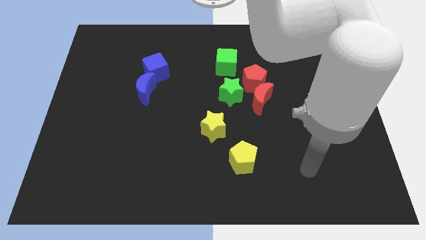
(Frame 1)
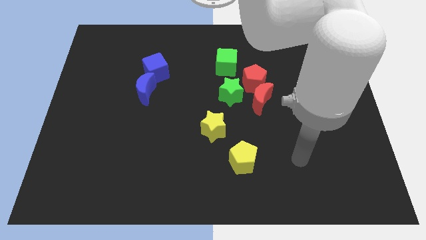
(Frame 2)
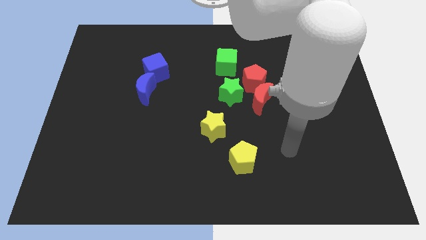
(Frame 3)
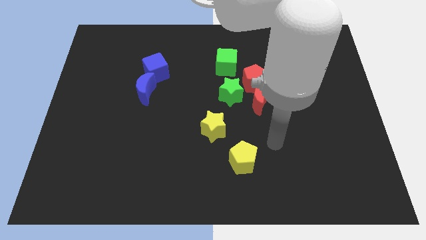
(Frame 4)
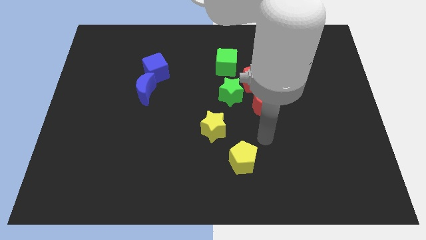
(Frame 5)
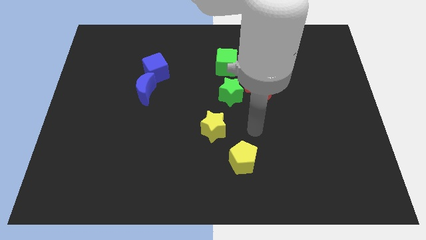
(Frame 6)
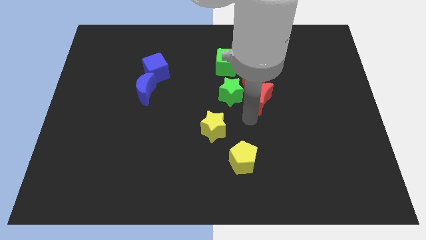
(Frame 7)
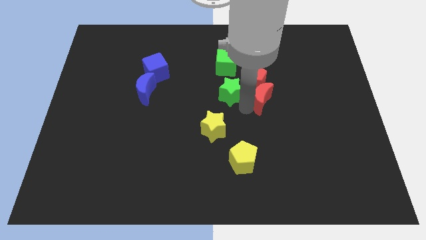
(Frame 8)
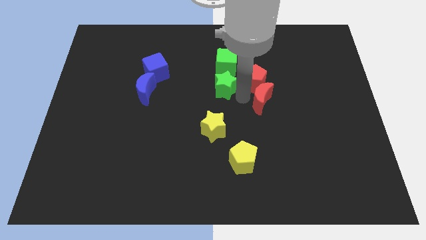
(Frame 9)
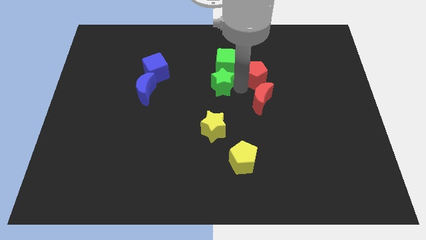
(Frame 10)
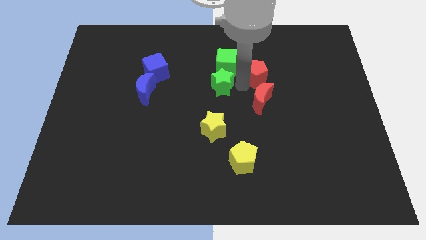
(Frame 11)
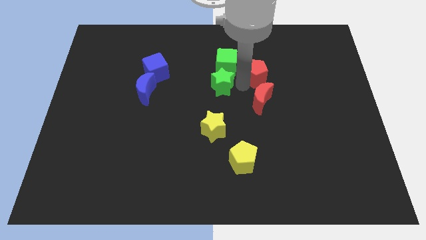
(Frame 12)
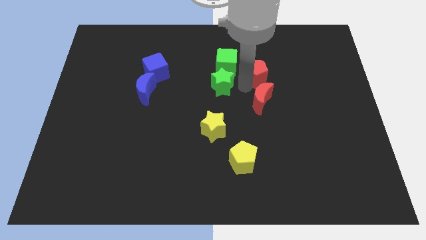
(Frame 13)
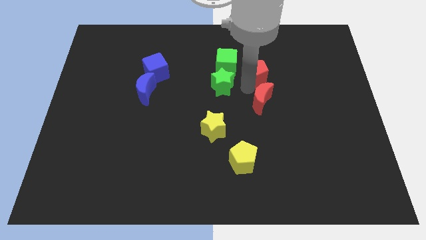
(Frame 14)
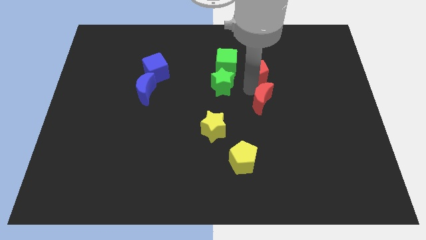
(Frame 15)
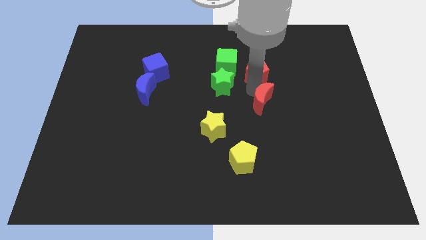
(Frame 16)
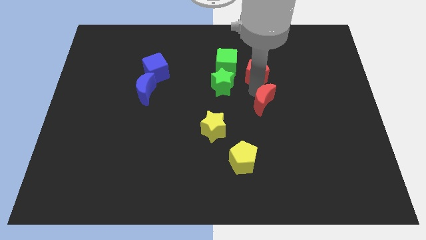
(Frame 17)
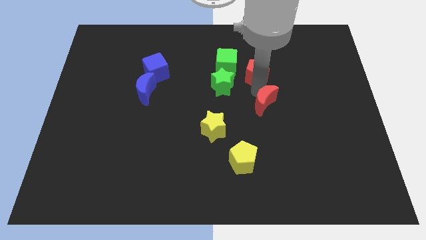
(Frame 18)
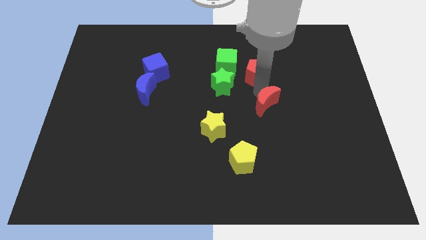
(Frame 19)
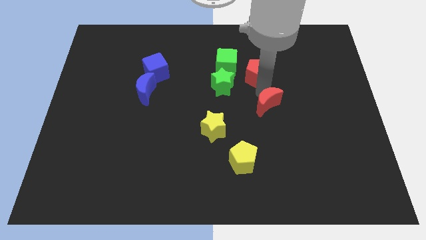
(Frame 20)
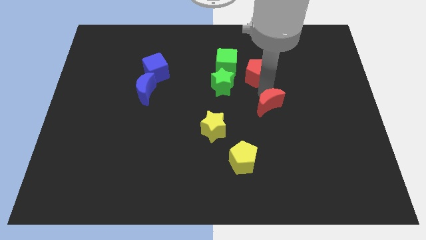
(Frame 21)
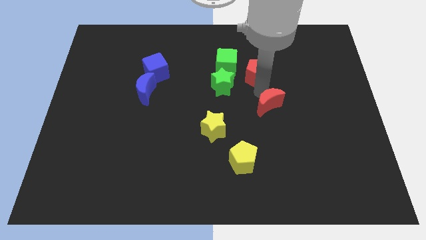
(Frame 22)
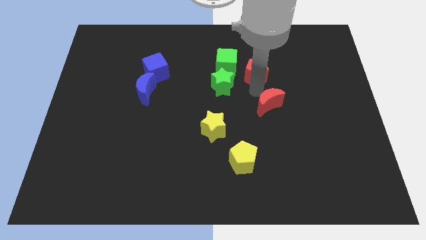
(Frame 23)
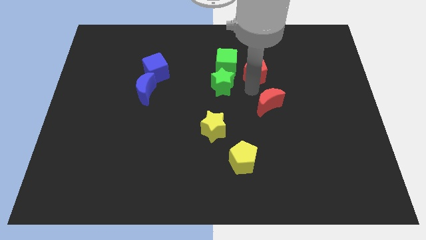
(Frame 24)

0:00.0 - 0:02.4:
separate the red moon from the red pentagon and green star

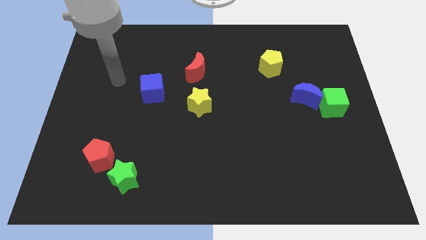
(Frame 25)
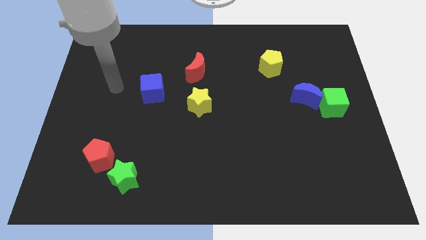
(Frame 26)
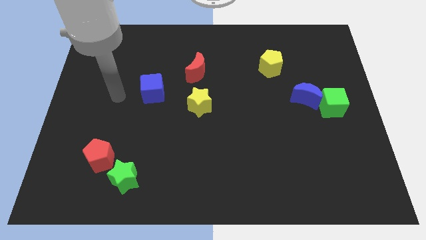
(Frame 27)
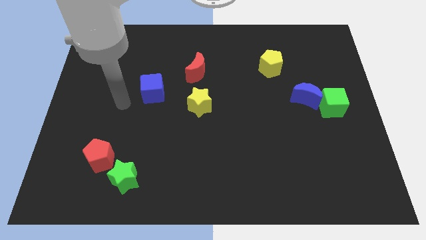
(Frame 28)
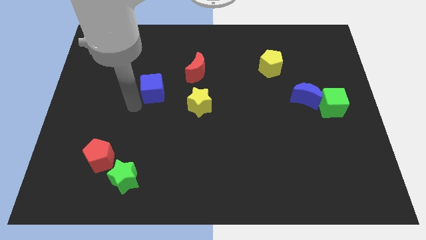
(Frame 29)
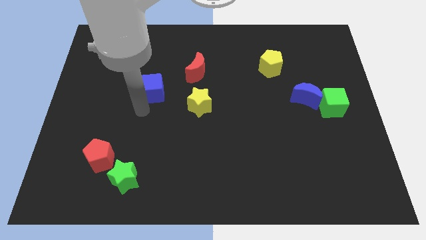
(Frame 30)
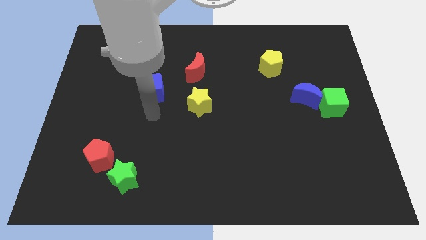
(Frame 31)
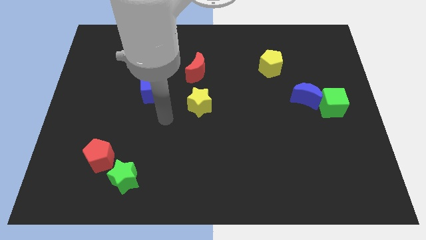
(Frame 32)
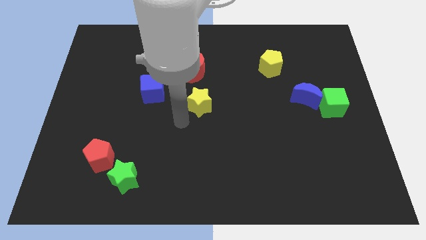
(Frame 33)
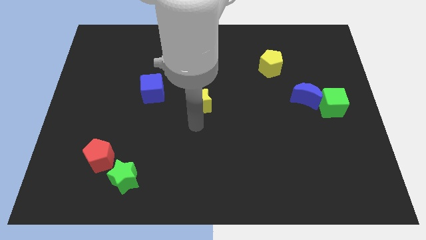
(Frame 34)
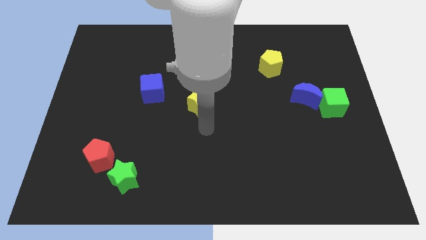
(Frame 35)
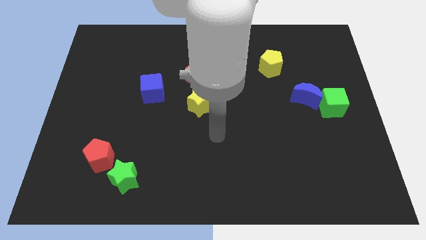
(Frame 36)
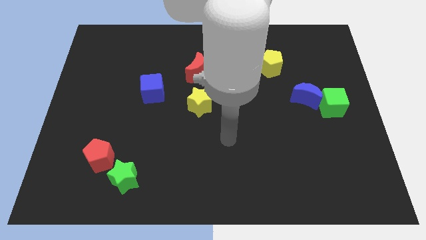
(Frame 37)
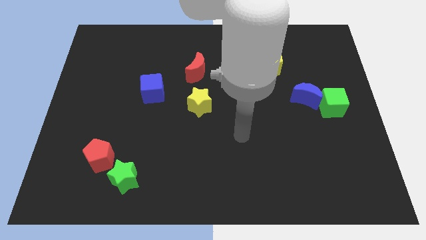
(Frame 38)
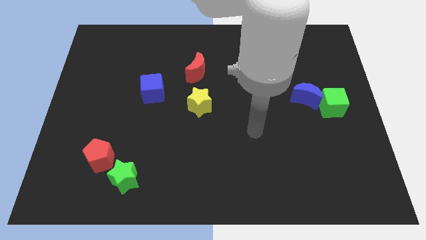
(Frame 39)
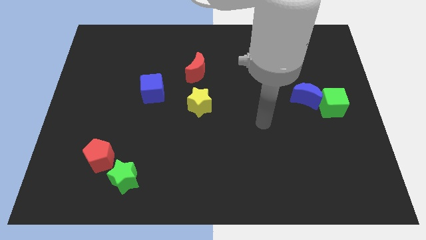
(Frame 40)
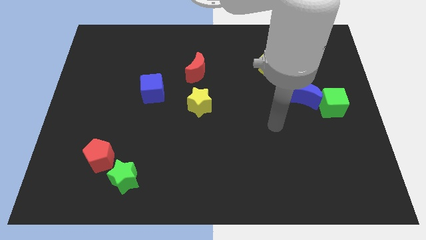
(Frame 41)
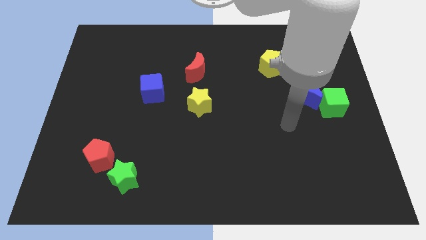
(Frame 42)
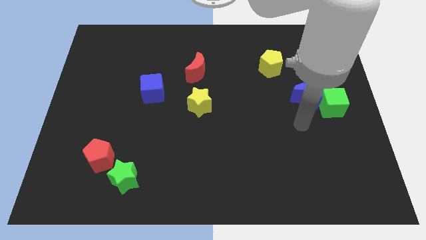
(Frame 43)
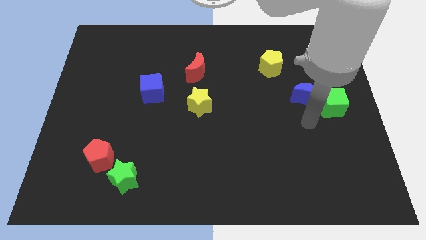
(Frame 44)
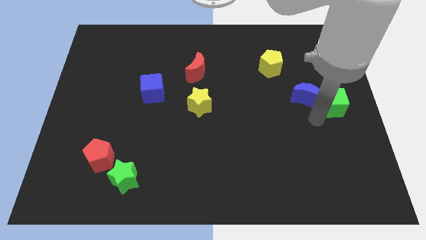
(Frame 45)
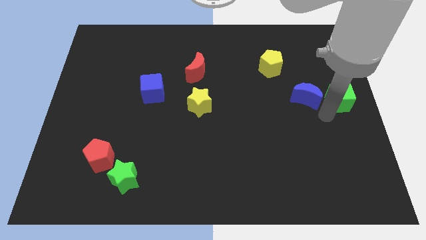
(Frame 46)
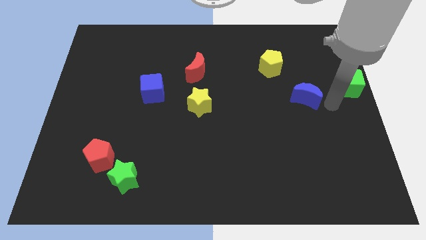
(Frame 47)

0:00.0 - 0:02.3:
move the blue moon away from the green cube

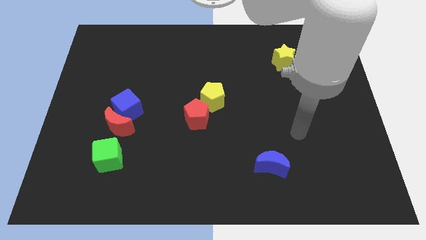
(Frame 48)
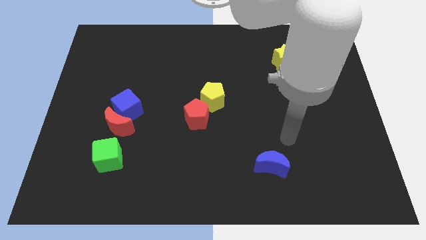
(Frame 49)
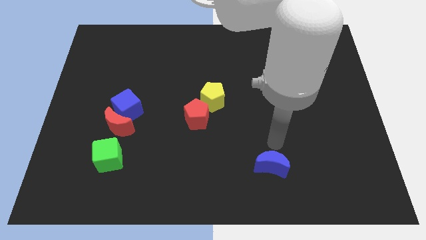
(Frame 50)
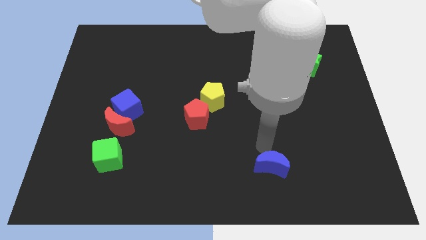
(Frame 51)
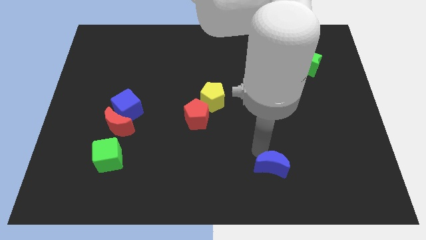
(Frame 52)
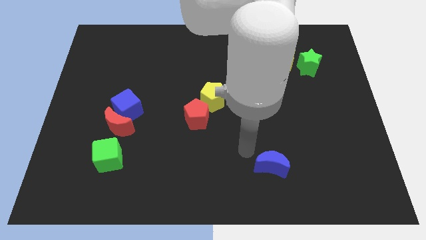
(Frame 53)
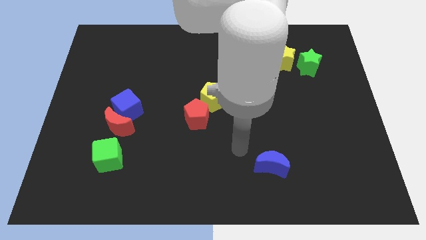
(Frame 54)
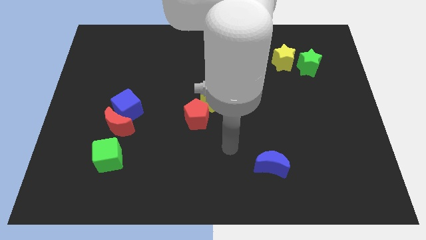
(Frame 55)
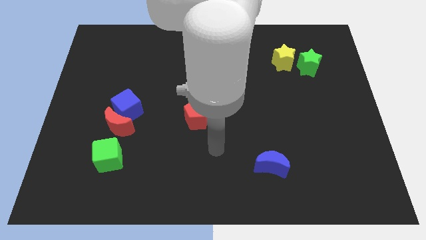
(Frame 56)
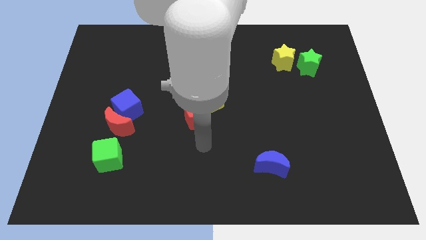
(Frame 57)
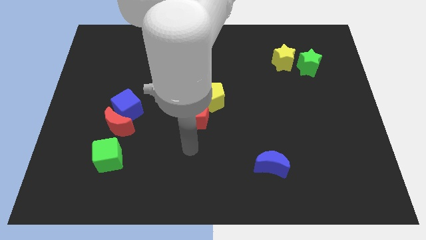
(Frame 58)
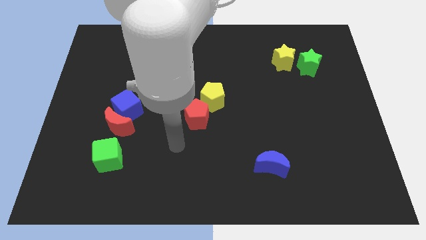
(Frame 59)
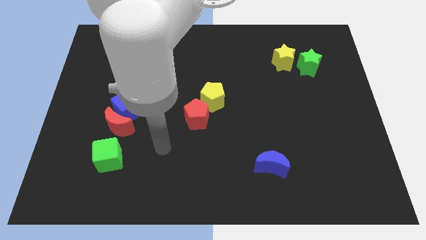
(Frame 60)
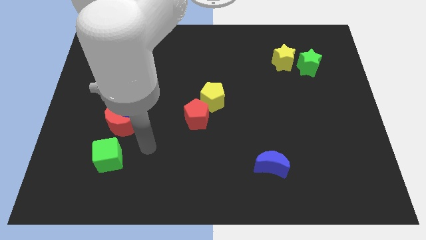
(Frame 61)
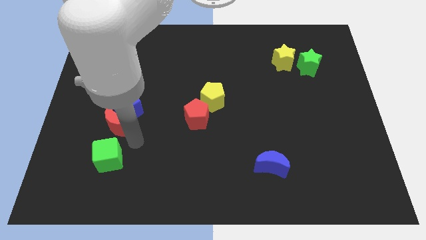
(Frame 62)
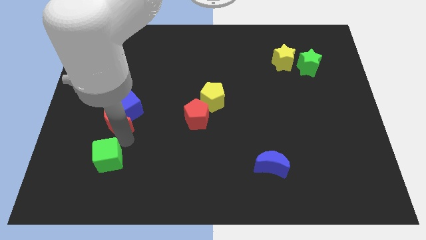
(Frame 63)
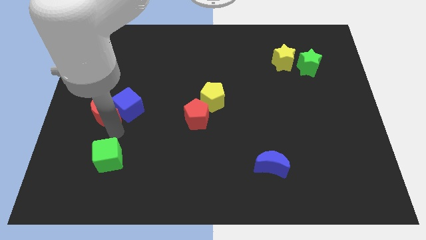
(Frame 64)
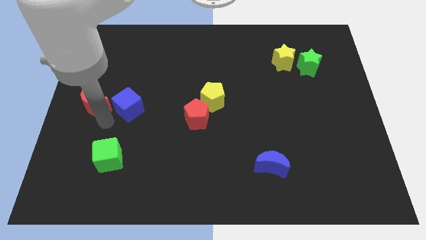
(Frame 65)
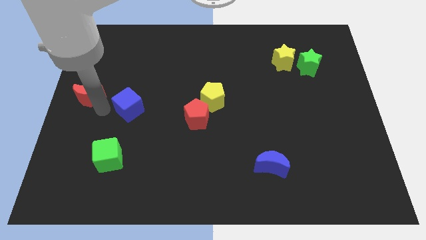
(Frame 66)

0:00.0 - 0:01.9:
separate the blue cube from the red moon

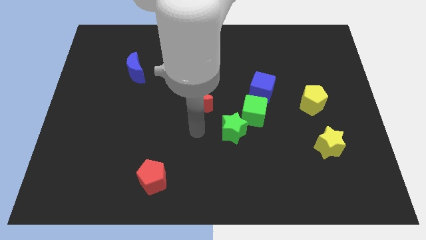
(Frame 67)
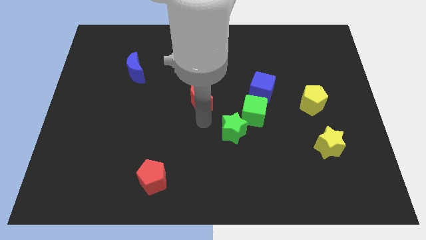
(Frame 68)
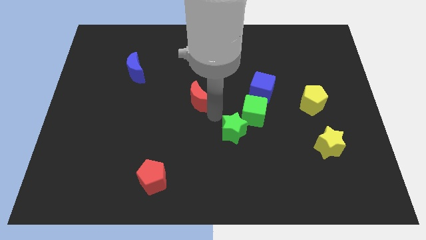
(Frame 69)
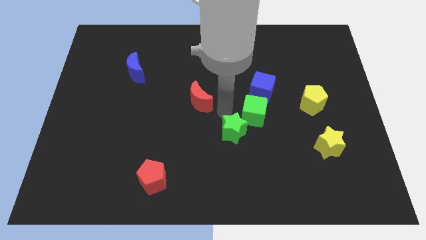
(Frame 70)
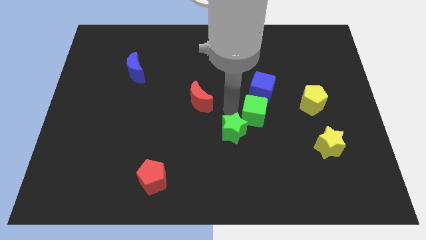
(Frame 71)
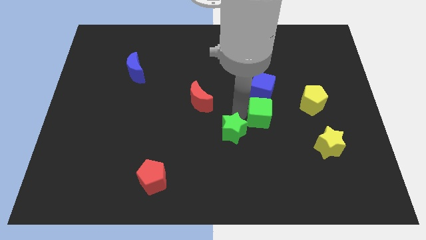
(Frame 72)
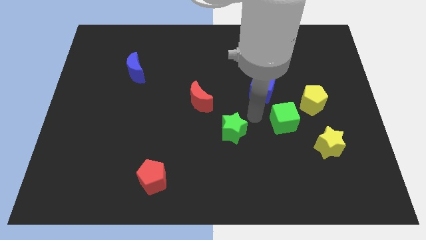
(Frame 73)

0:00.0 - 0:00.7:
move the green star away from the green cube

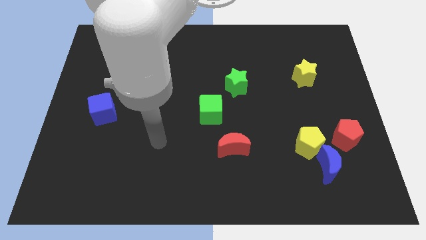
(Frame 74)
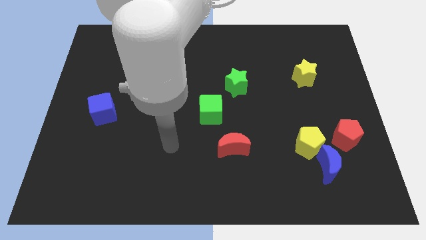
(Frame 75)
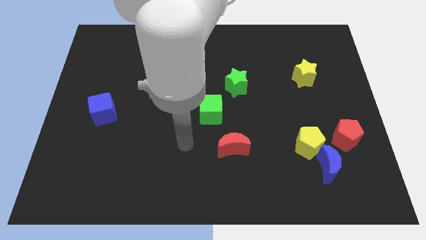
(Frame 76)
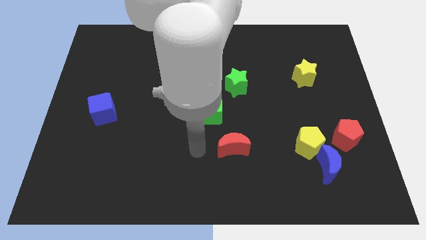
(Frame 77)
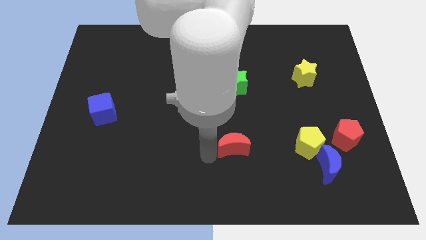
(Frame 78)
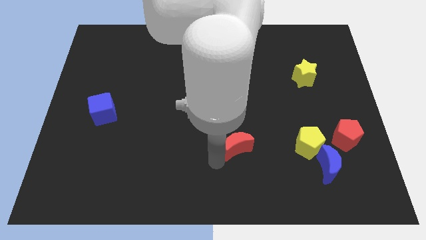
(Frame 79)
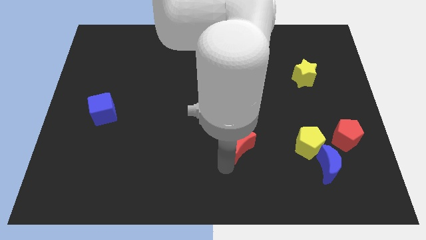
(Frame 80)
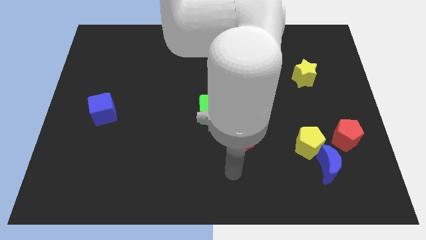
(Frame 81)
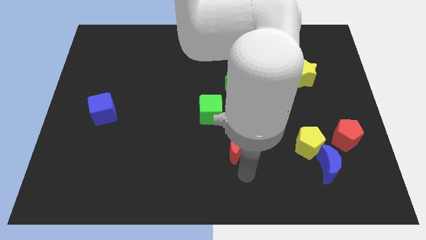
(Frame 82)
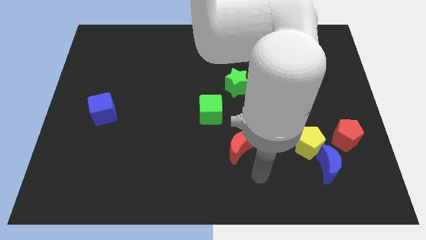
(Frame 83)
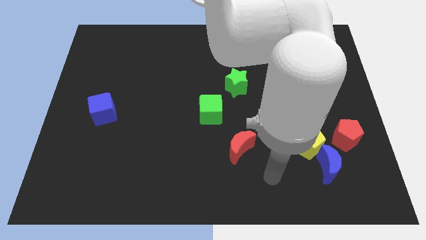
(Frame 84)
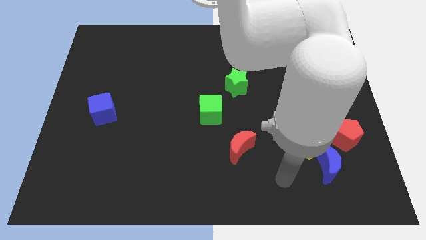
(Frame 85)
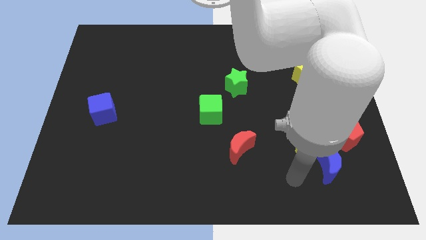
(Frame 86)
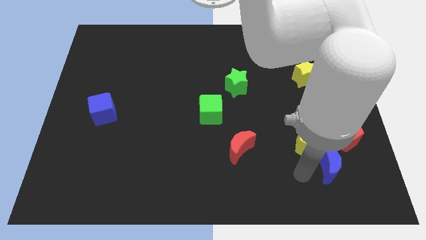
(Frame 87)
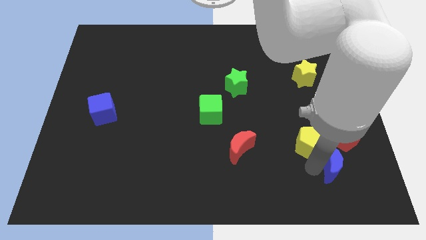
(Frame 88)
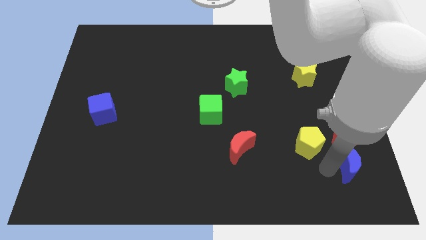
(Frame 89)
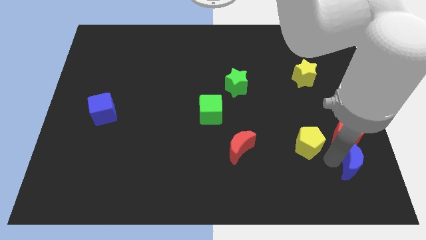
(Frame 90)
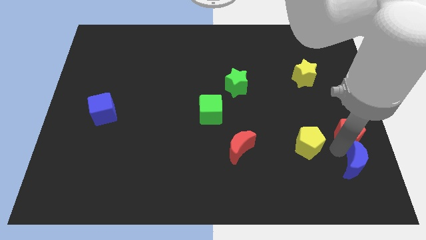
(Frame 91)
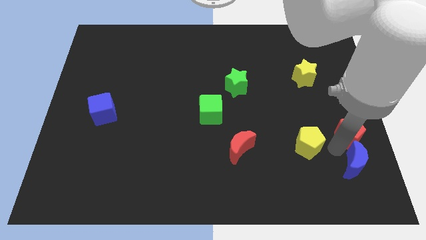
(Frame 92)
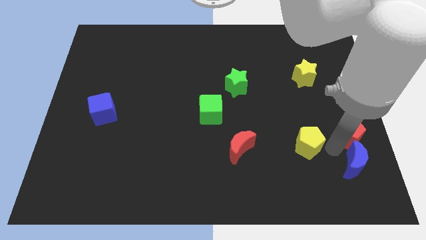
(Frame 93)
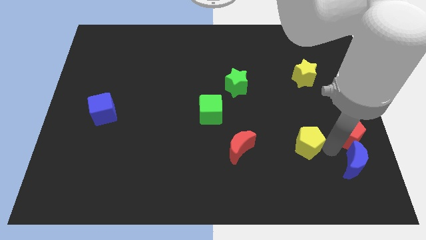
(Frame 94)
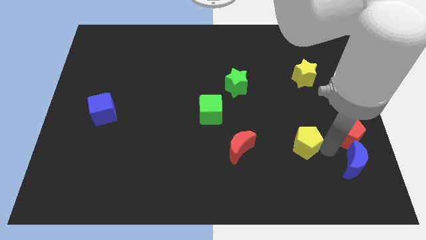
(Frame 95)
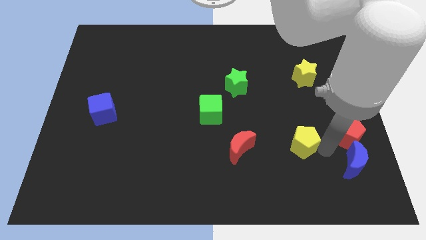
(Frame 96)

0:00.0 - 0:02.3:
pull the yellow pentagon apart from the blue moon and red pentagon
